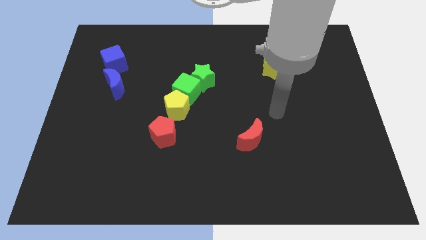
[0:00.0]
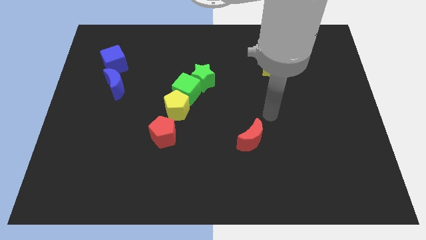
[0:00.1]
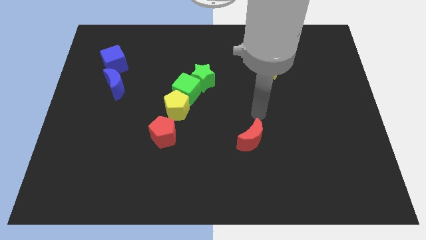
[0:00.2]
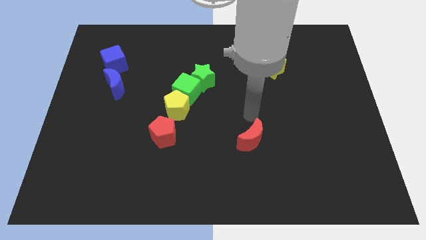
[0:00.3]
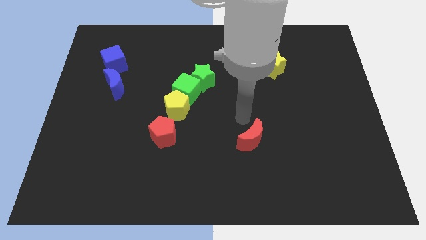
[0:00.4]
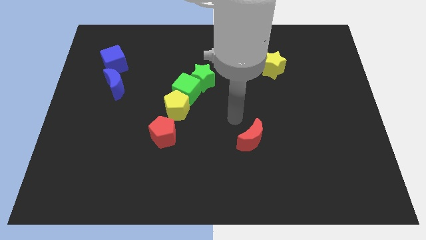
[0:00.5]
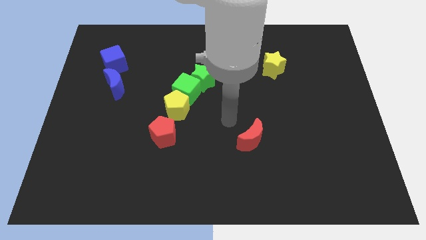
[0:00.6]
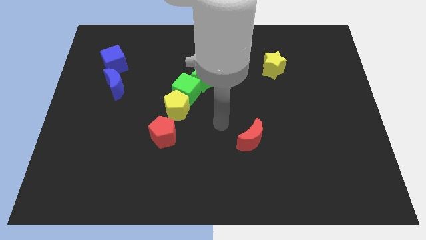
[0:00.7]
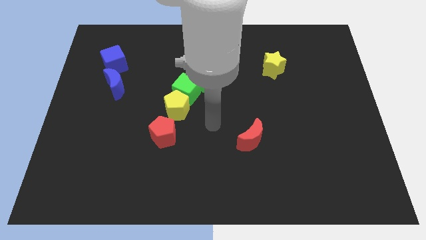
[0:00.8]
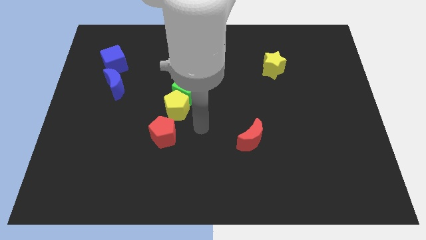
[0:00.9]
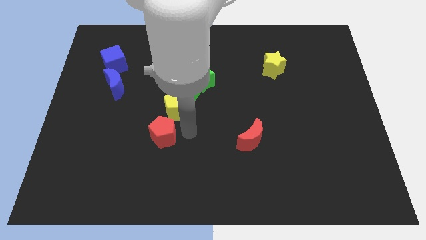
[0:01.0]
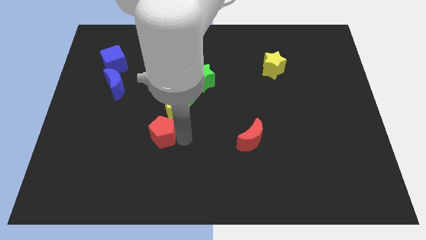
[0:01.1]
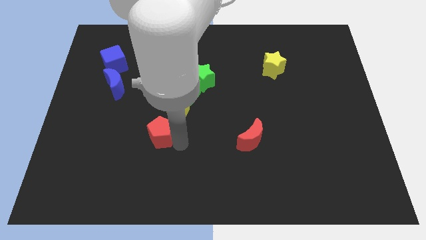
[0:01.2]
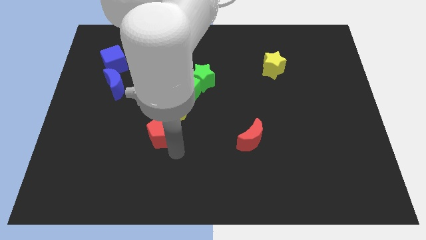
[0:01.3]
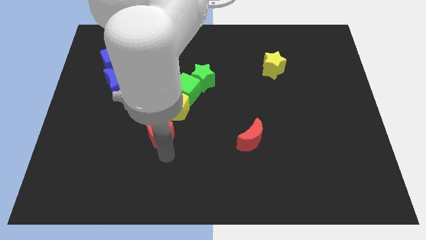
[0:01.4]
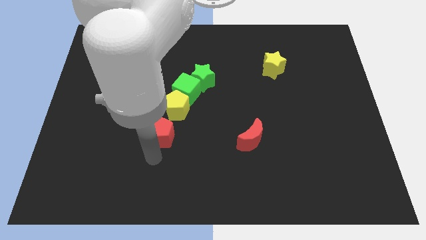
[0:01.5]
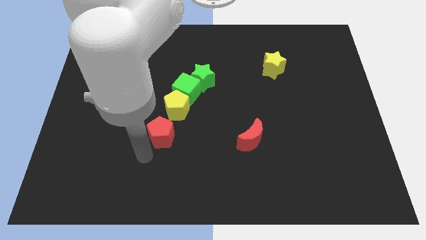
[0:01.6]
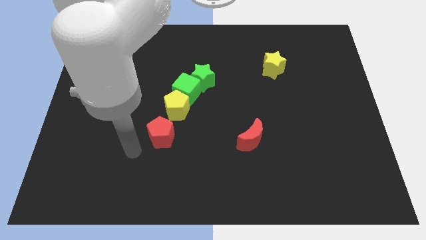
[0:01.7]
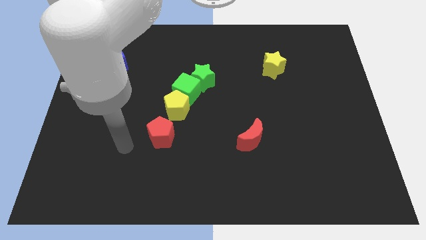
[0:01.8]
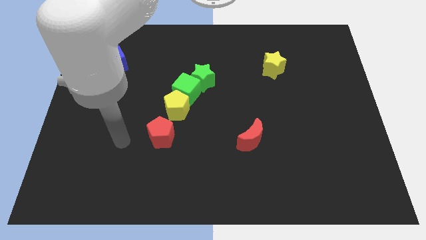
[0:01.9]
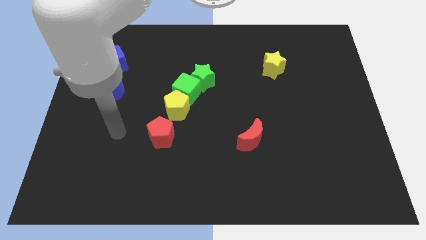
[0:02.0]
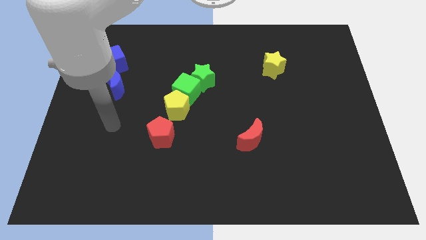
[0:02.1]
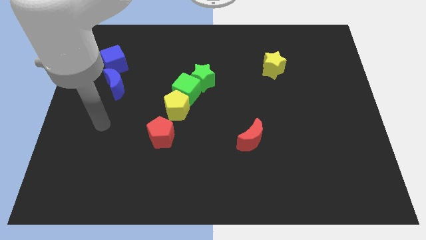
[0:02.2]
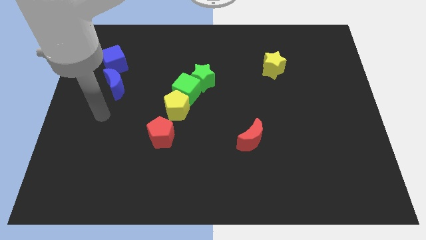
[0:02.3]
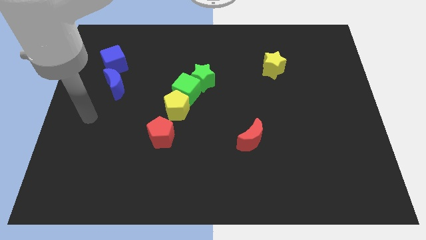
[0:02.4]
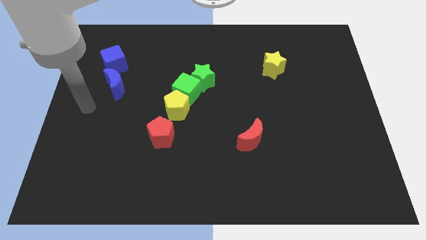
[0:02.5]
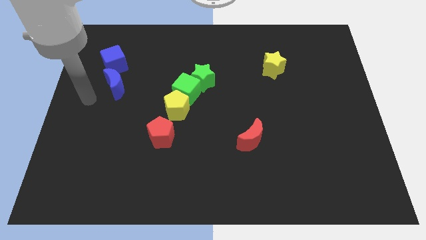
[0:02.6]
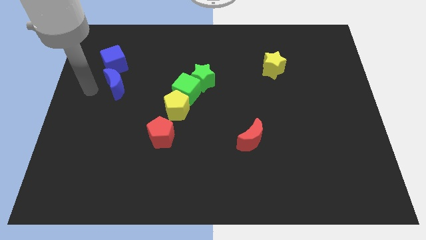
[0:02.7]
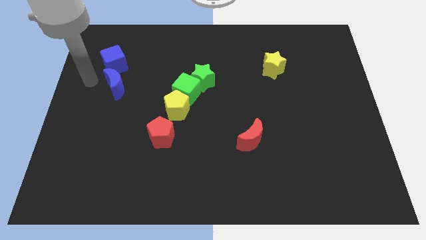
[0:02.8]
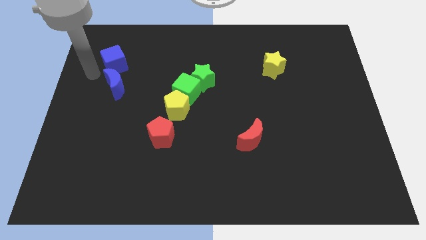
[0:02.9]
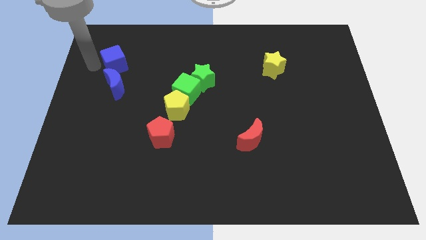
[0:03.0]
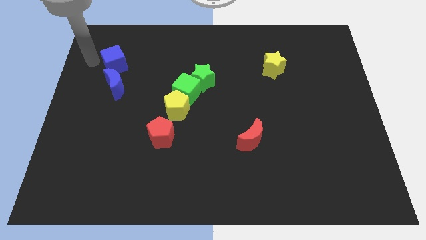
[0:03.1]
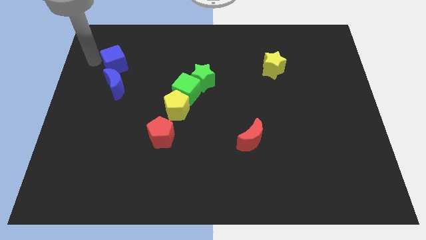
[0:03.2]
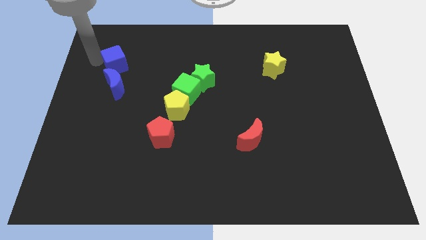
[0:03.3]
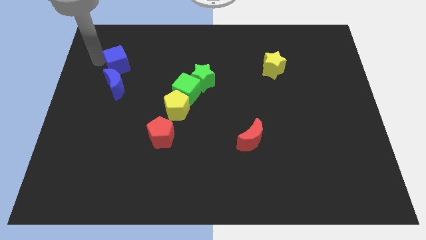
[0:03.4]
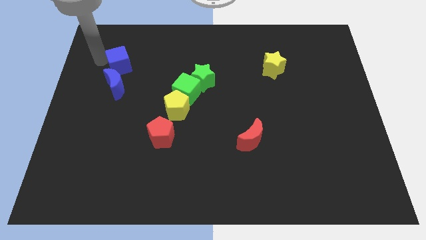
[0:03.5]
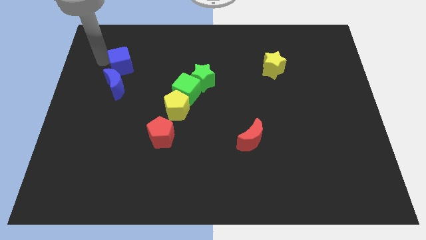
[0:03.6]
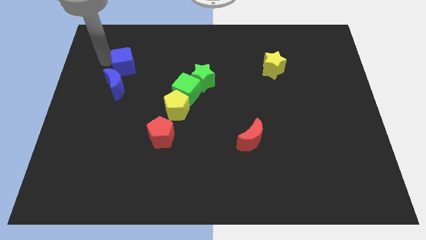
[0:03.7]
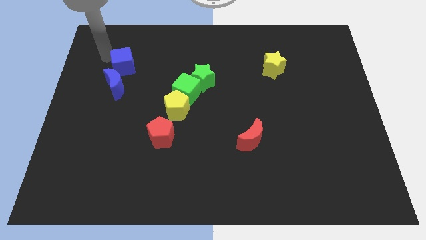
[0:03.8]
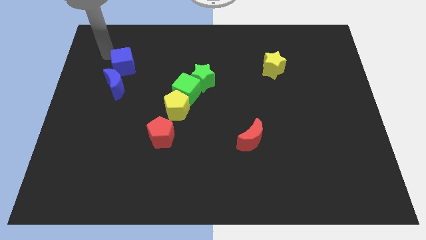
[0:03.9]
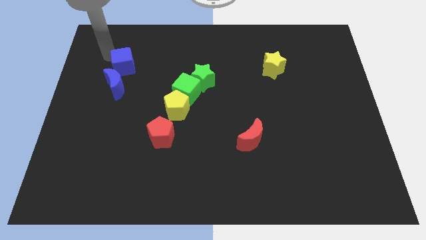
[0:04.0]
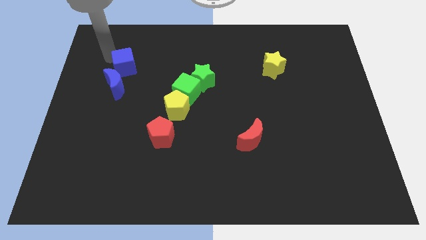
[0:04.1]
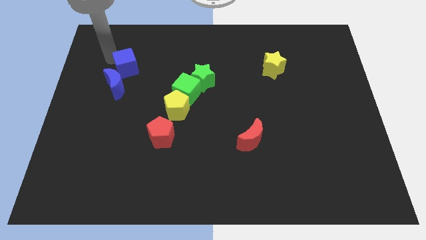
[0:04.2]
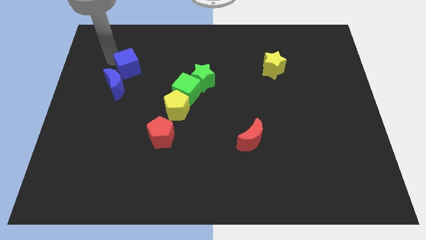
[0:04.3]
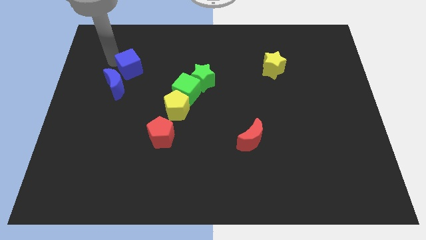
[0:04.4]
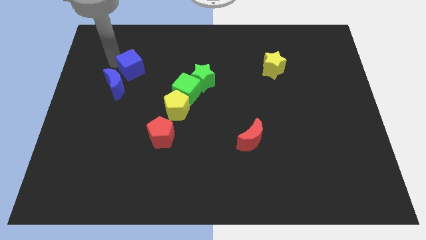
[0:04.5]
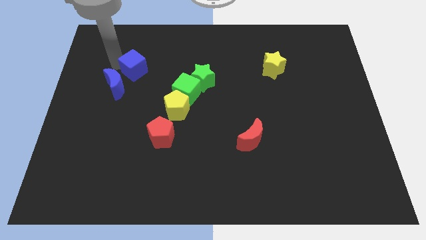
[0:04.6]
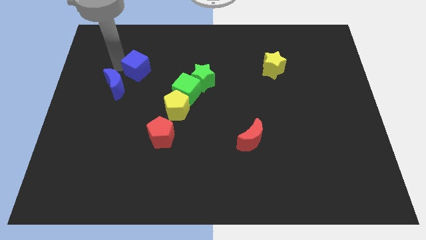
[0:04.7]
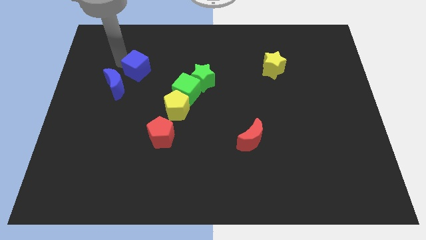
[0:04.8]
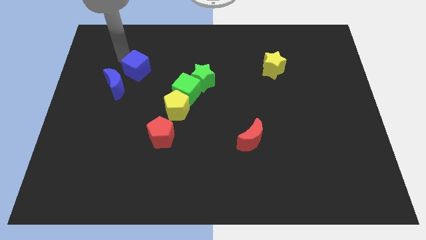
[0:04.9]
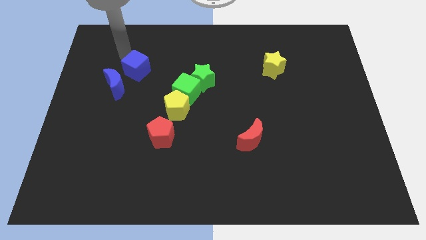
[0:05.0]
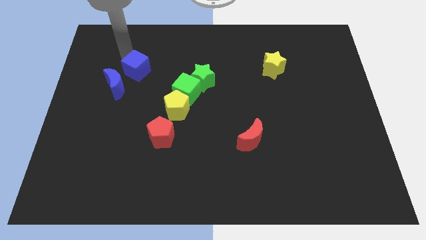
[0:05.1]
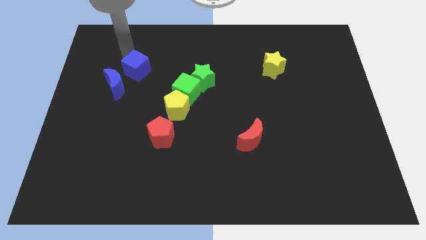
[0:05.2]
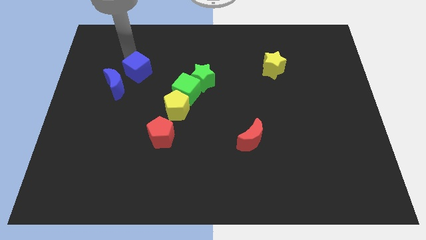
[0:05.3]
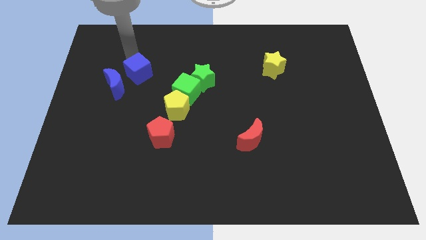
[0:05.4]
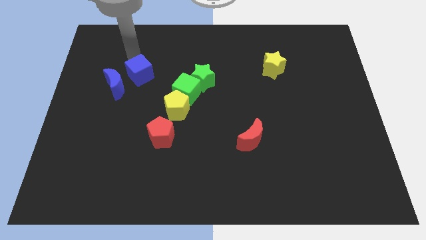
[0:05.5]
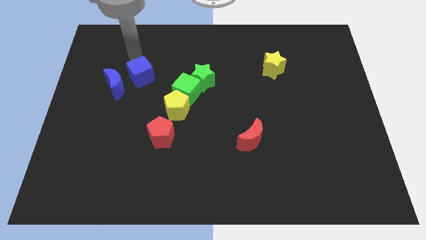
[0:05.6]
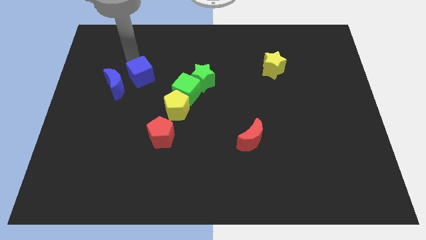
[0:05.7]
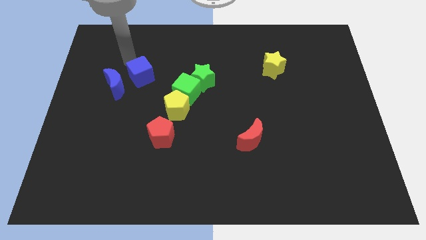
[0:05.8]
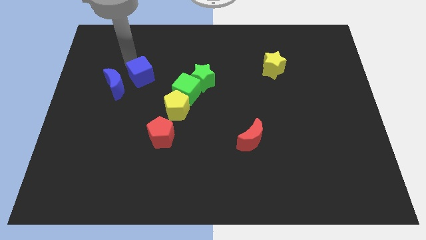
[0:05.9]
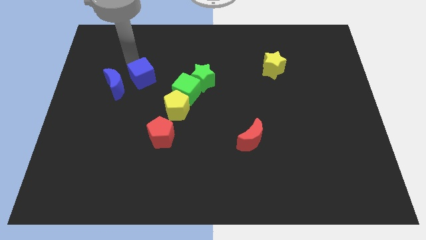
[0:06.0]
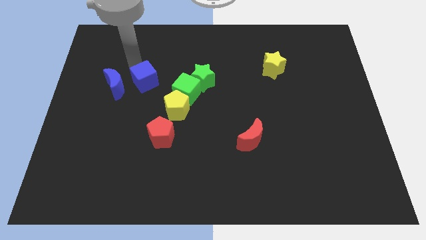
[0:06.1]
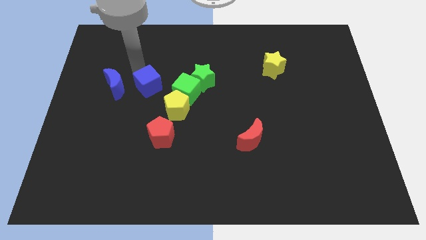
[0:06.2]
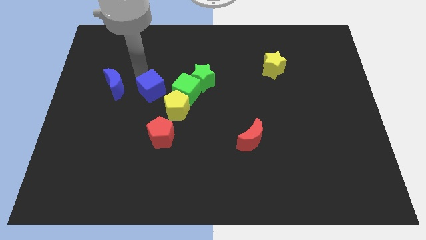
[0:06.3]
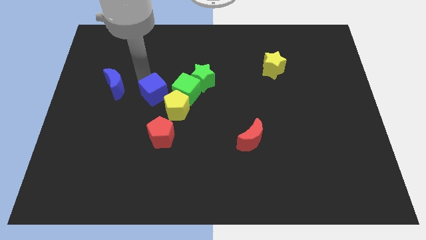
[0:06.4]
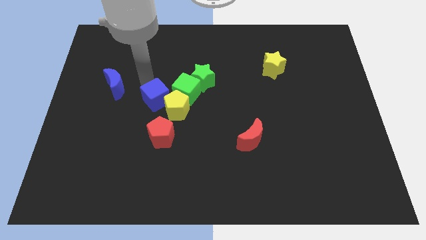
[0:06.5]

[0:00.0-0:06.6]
move the blue cube close to the yellow pentagon

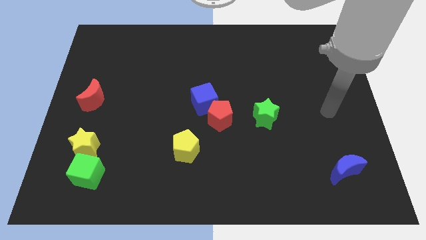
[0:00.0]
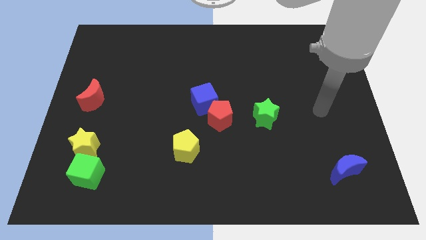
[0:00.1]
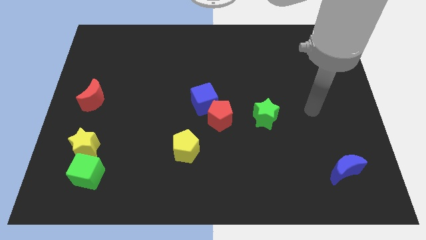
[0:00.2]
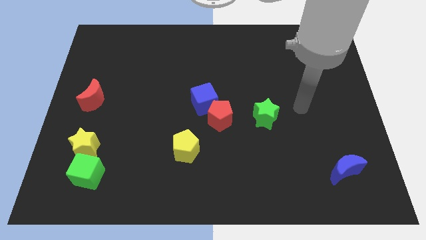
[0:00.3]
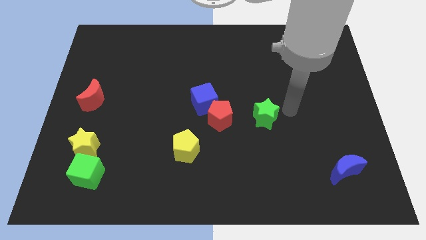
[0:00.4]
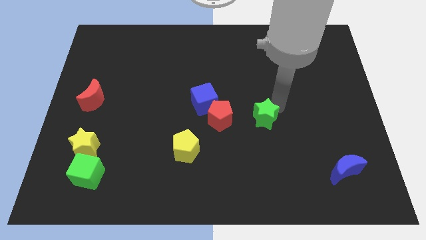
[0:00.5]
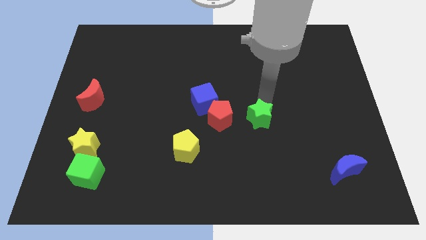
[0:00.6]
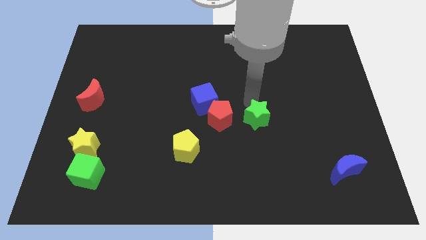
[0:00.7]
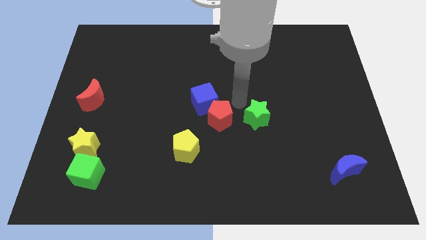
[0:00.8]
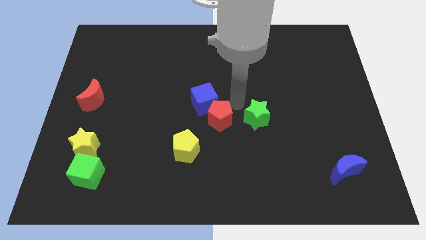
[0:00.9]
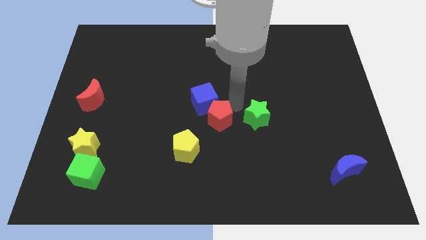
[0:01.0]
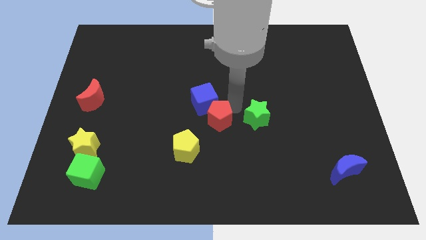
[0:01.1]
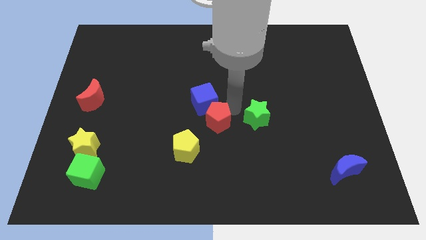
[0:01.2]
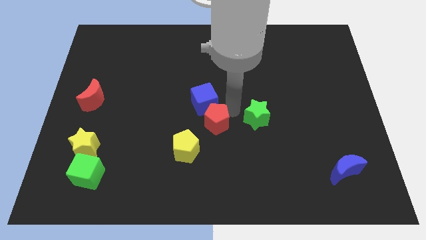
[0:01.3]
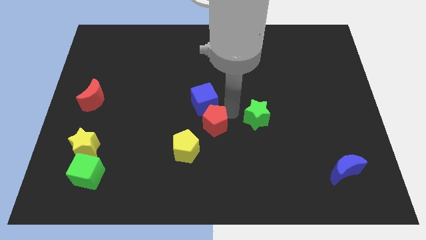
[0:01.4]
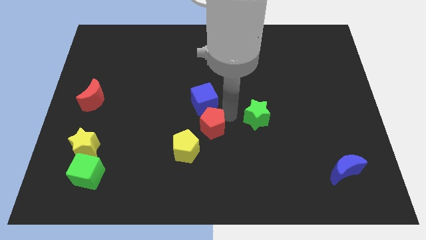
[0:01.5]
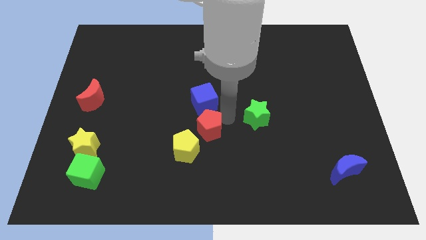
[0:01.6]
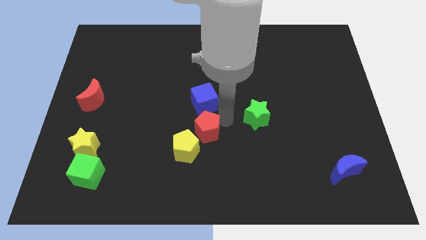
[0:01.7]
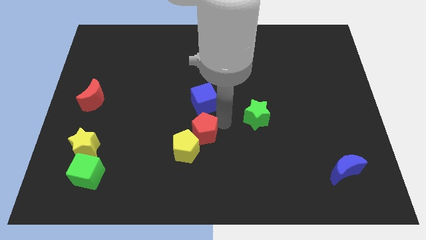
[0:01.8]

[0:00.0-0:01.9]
slide the red pentagon towards the yellow pentagon
